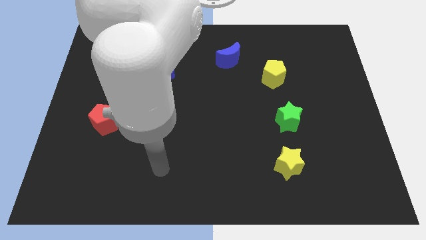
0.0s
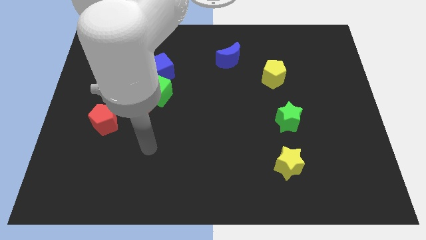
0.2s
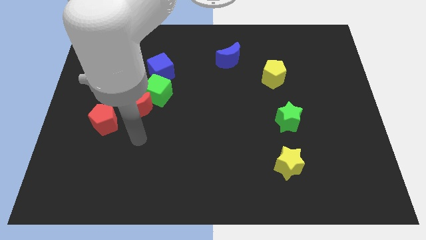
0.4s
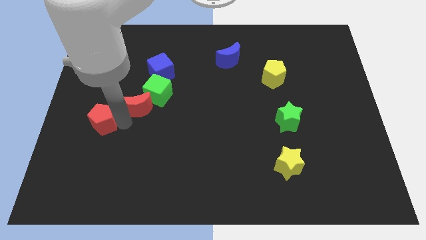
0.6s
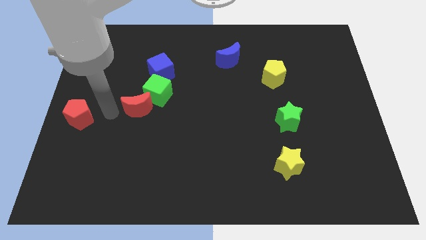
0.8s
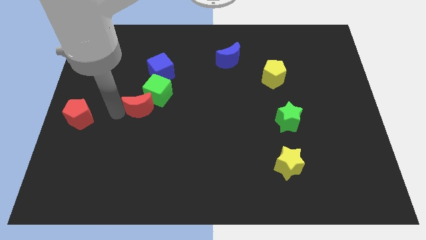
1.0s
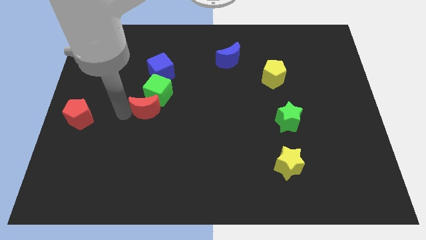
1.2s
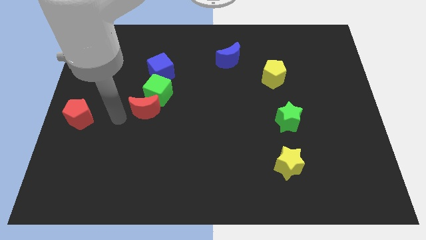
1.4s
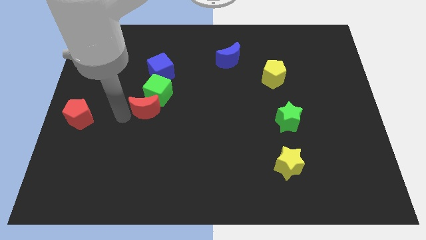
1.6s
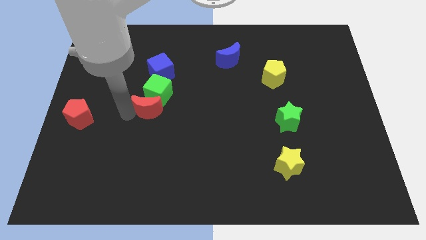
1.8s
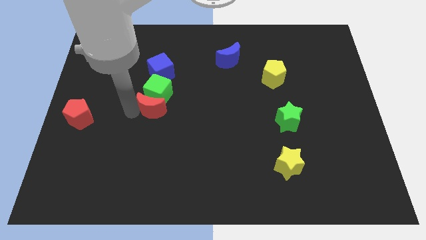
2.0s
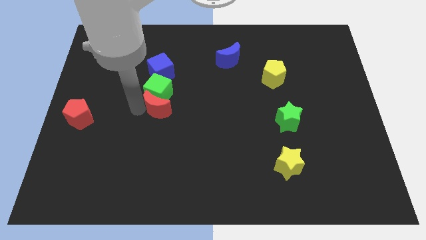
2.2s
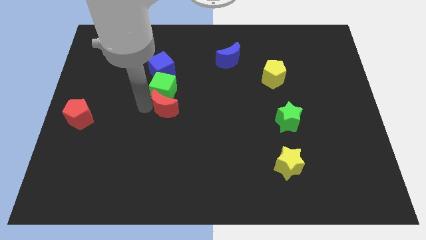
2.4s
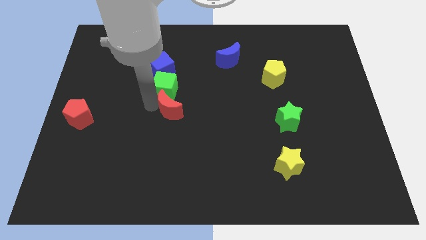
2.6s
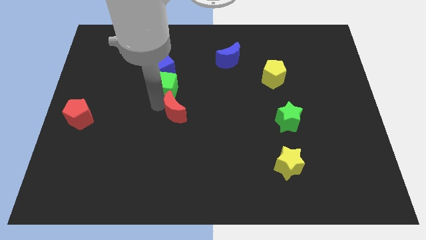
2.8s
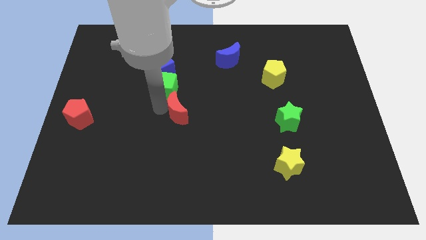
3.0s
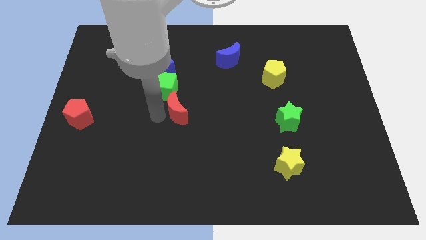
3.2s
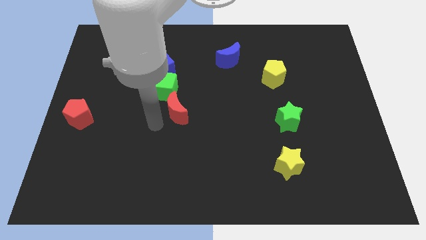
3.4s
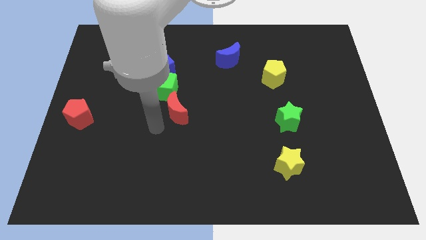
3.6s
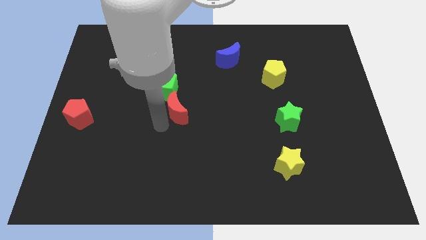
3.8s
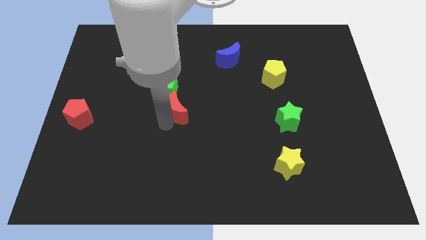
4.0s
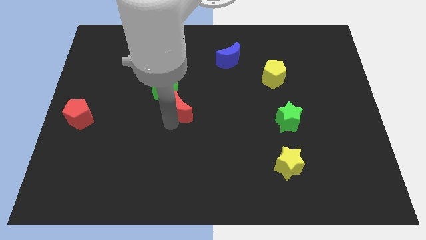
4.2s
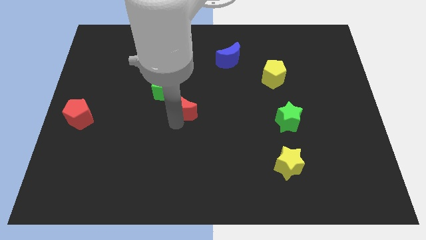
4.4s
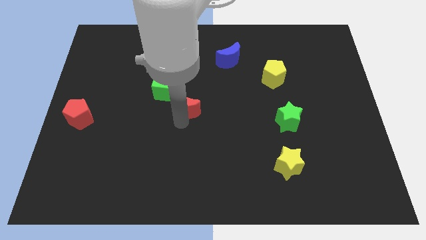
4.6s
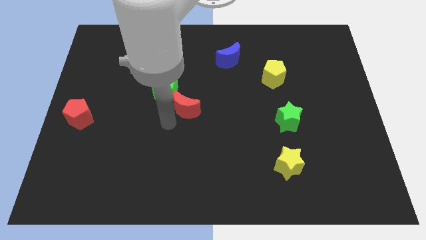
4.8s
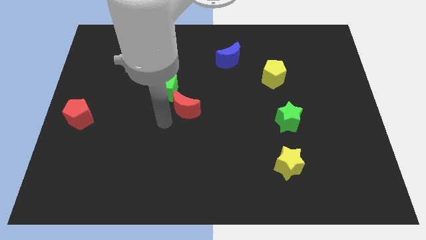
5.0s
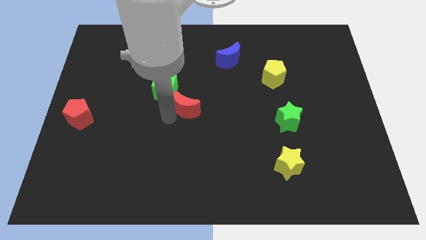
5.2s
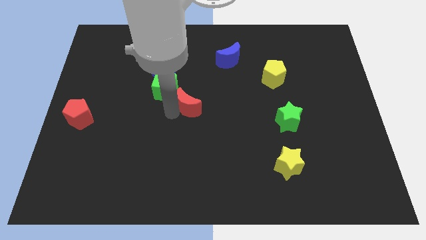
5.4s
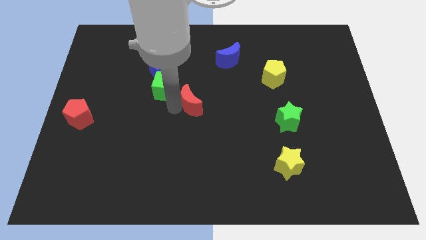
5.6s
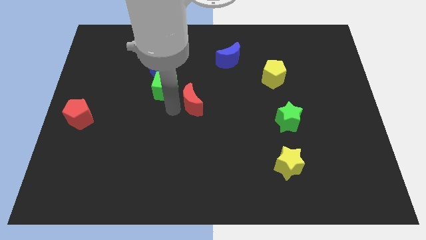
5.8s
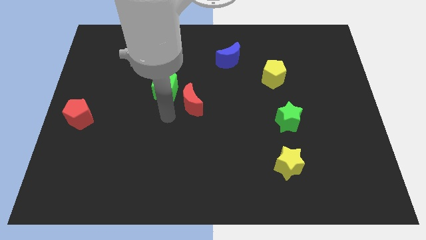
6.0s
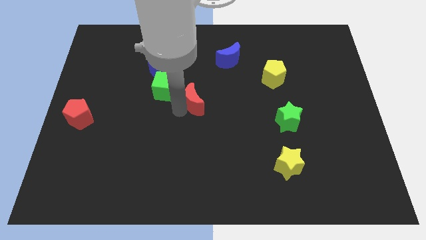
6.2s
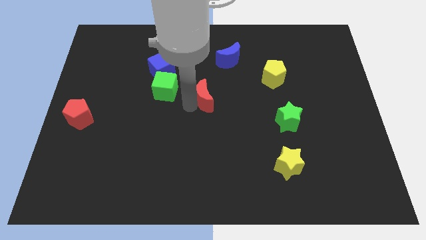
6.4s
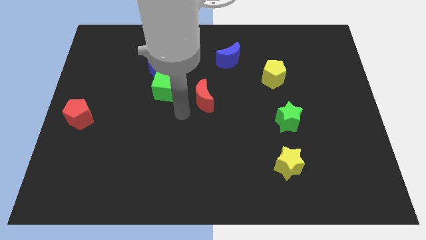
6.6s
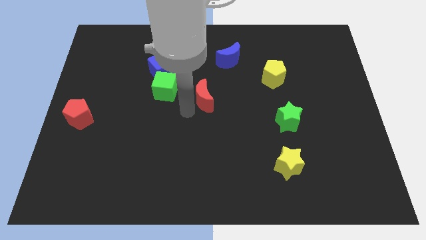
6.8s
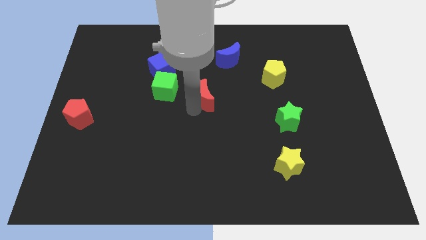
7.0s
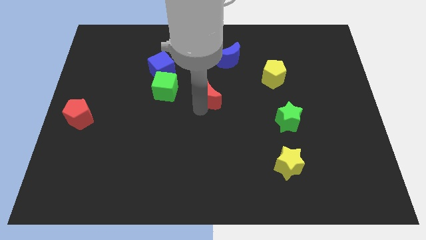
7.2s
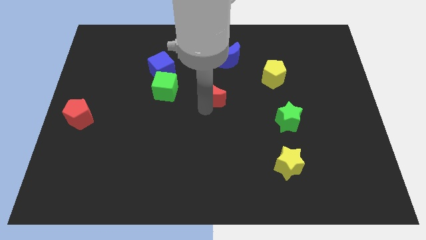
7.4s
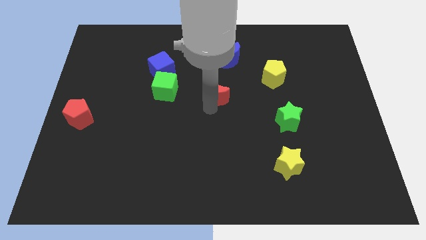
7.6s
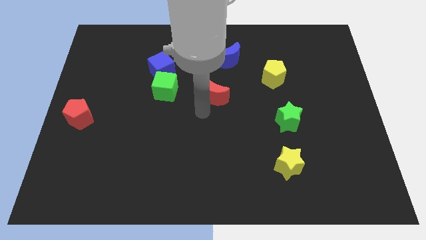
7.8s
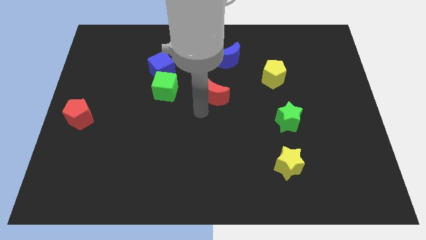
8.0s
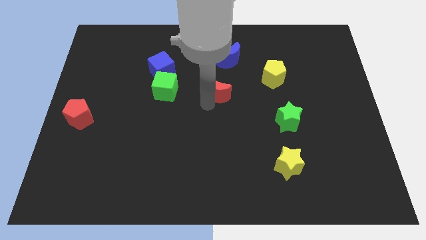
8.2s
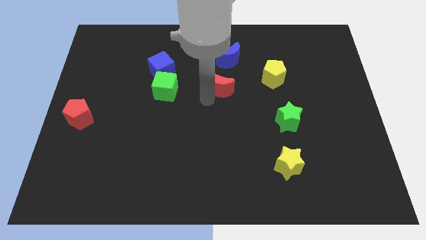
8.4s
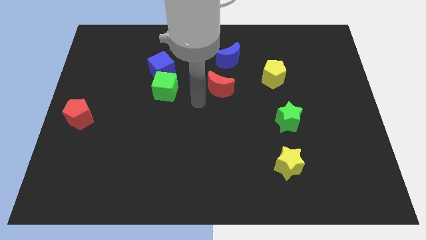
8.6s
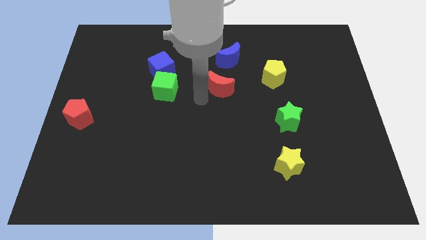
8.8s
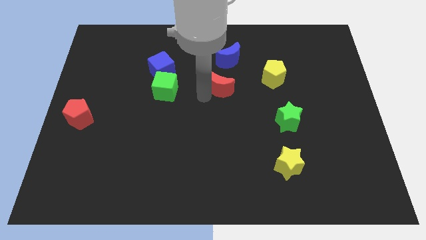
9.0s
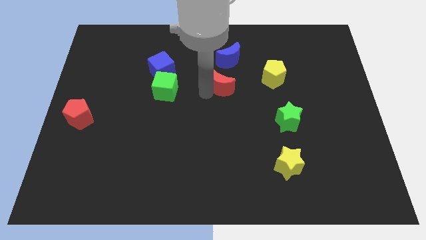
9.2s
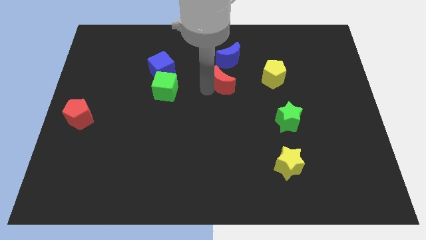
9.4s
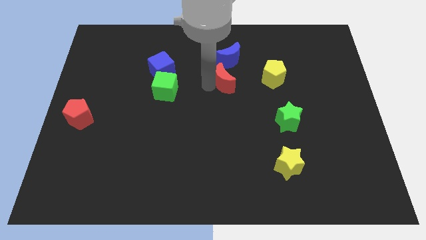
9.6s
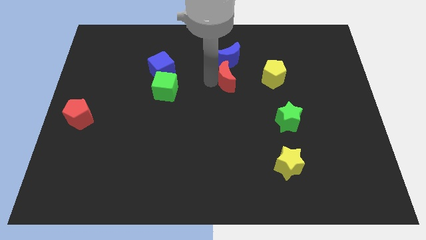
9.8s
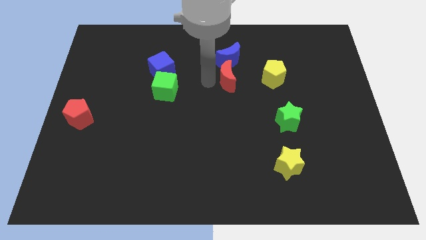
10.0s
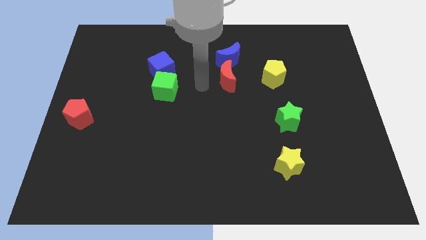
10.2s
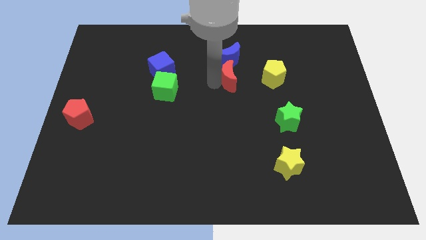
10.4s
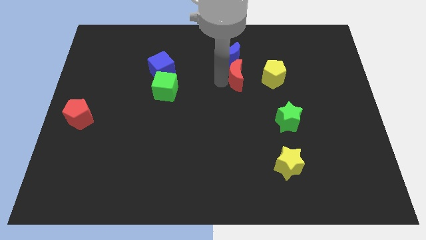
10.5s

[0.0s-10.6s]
slide the red moon diagonally down and to the right of the blue moon

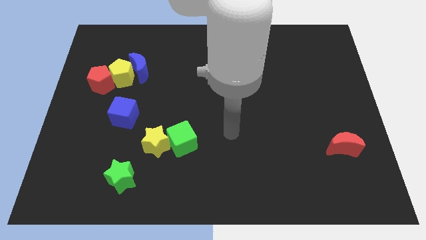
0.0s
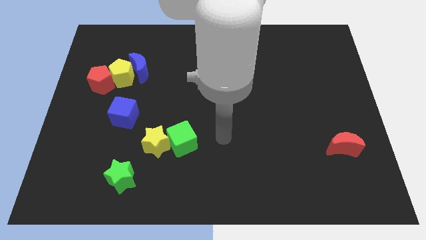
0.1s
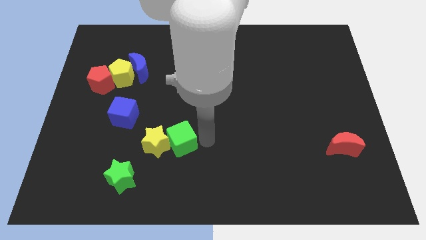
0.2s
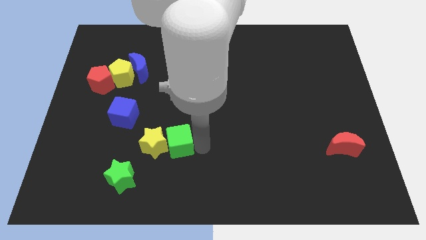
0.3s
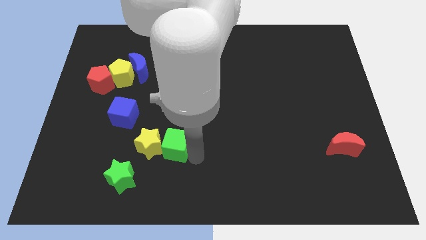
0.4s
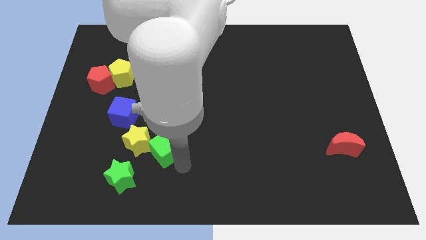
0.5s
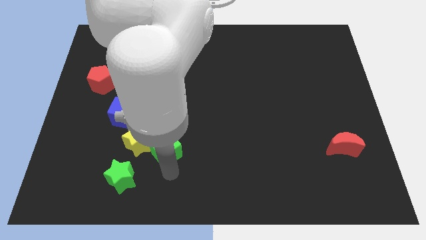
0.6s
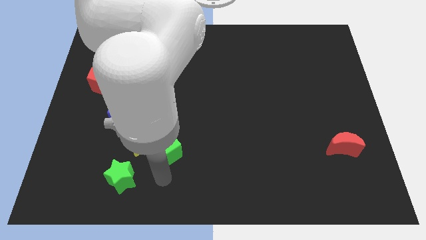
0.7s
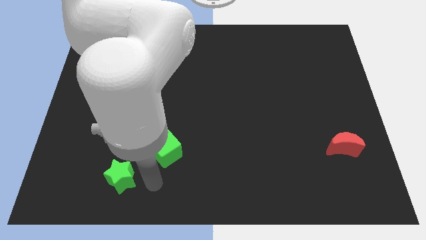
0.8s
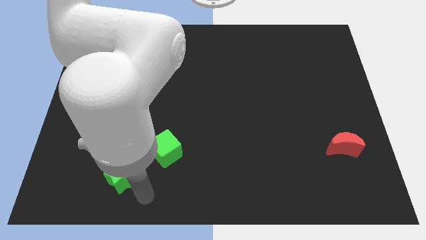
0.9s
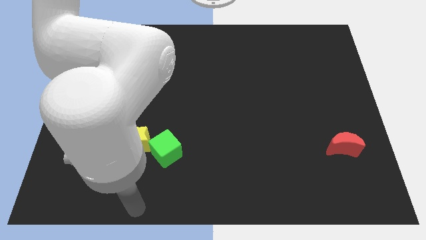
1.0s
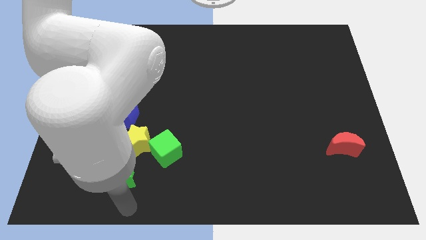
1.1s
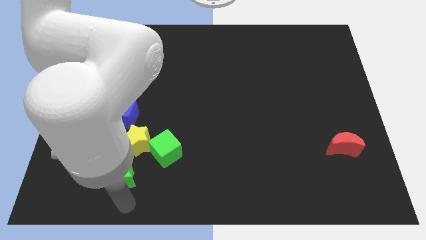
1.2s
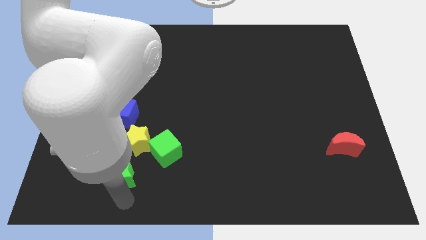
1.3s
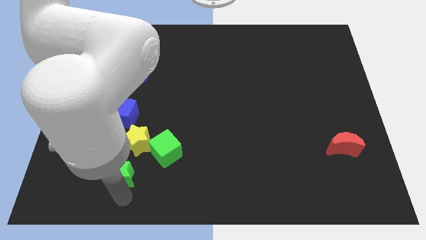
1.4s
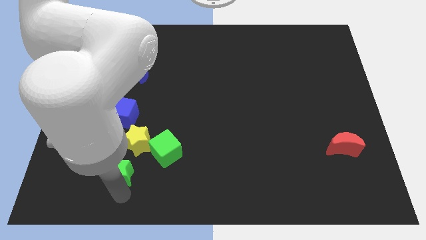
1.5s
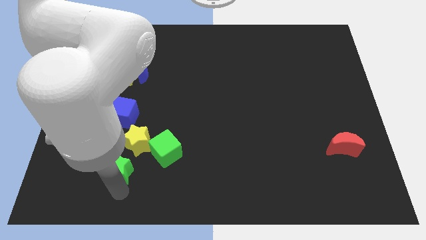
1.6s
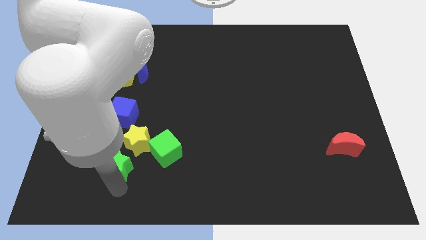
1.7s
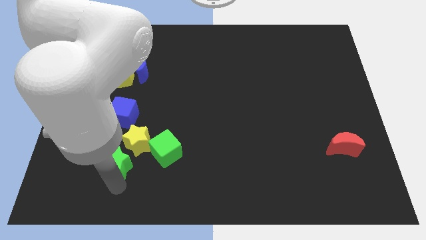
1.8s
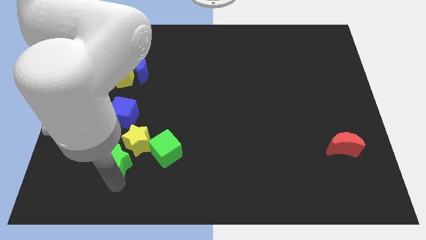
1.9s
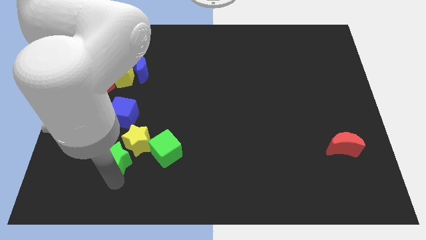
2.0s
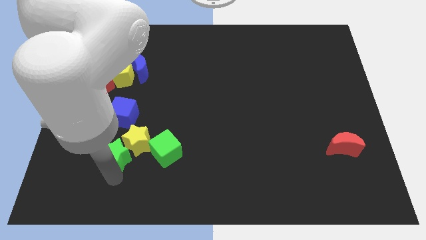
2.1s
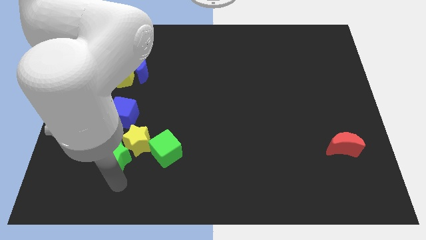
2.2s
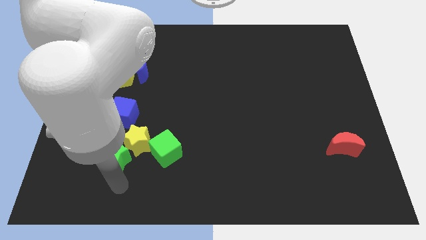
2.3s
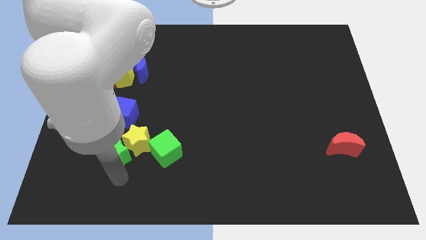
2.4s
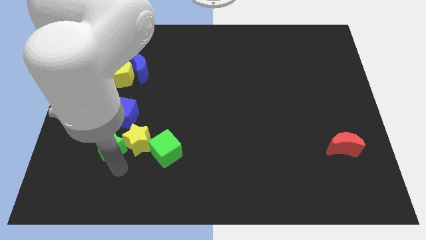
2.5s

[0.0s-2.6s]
move the green star to the top left side of the yellow star
